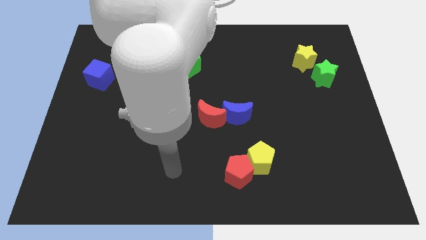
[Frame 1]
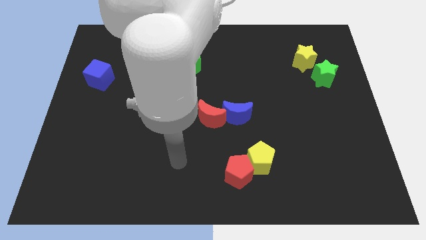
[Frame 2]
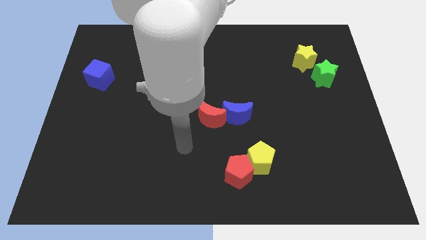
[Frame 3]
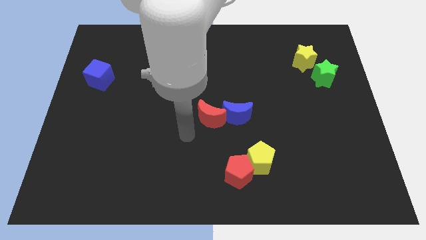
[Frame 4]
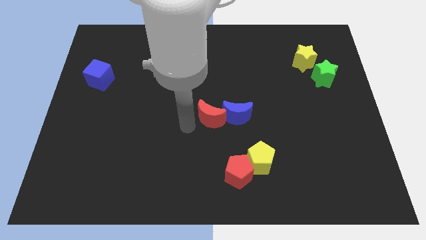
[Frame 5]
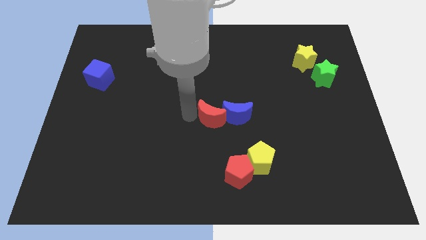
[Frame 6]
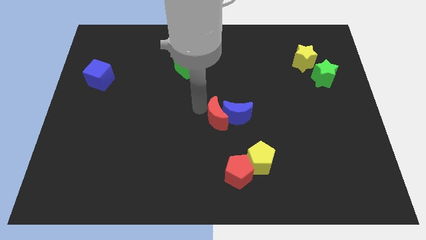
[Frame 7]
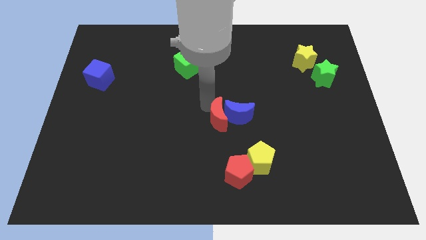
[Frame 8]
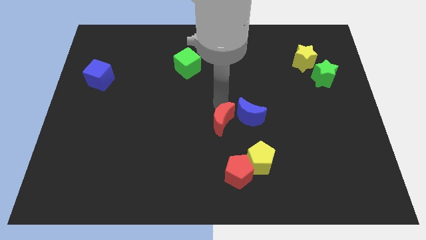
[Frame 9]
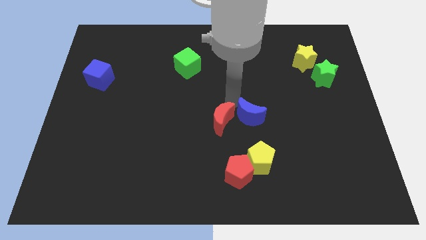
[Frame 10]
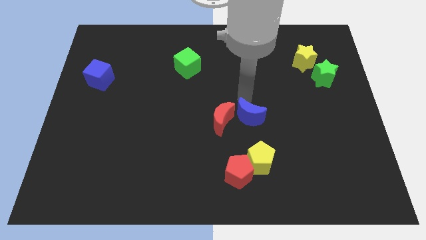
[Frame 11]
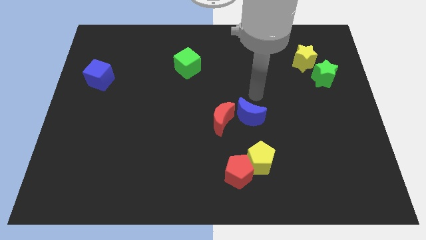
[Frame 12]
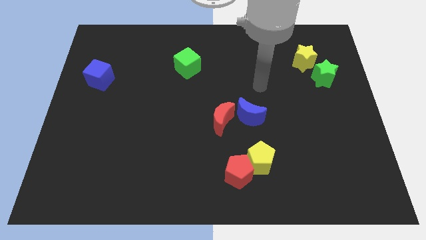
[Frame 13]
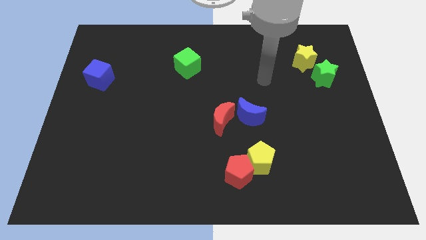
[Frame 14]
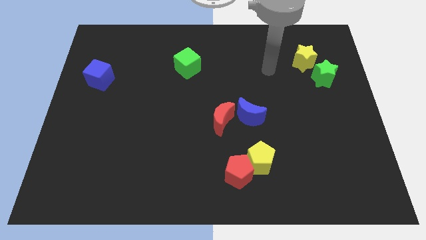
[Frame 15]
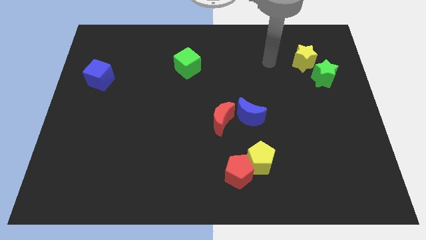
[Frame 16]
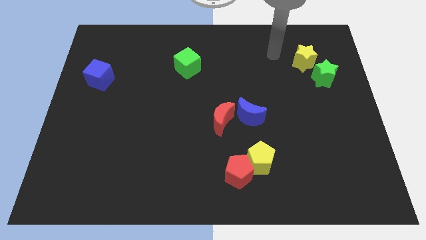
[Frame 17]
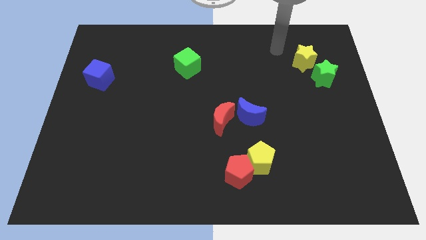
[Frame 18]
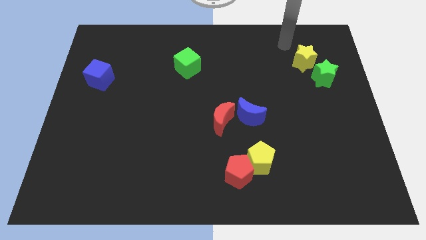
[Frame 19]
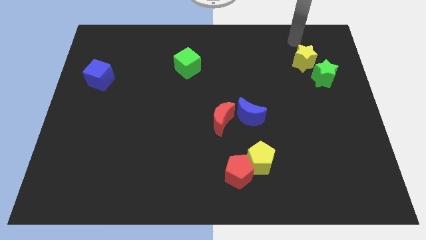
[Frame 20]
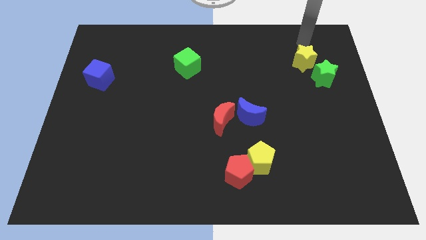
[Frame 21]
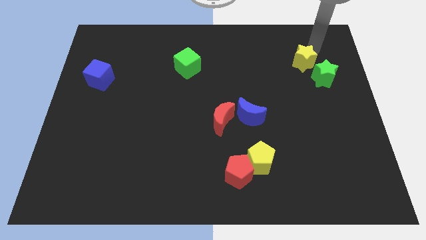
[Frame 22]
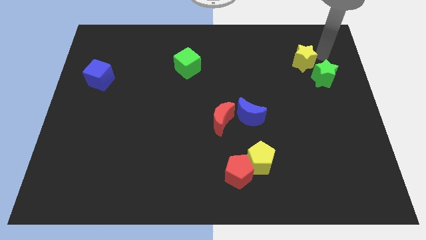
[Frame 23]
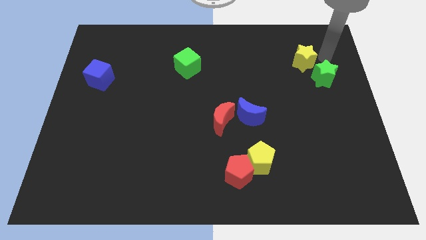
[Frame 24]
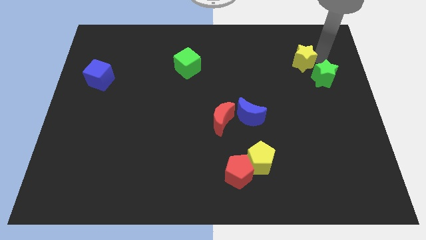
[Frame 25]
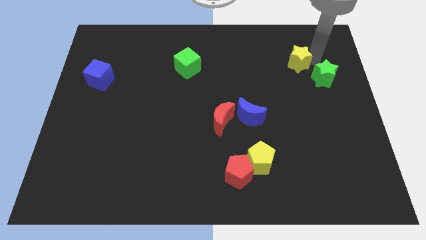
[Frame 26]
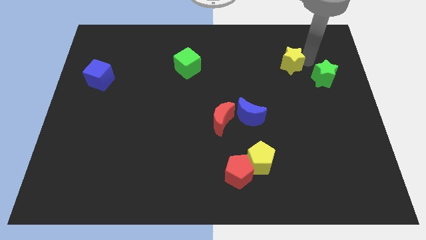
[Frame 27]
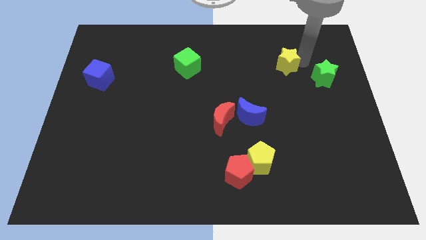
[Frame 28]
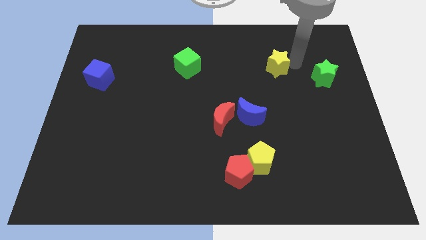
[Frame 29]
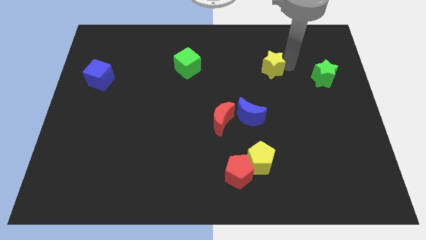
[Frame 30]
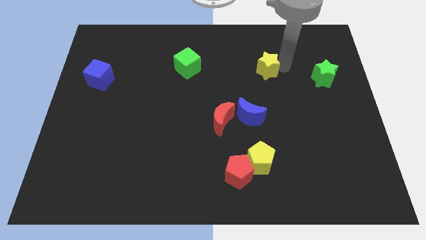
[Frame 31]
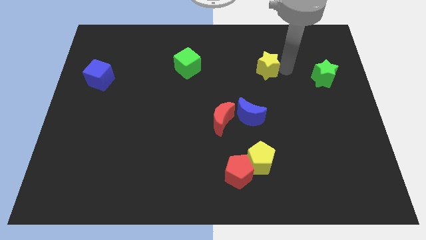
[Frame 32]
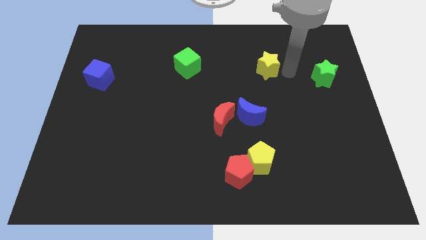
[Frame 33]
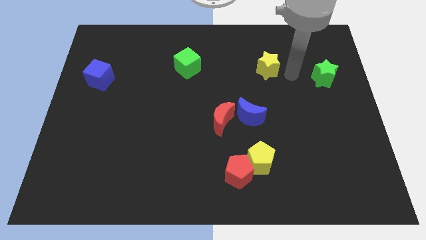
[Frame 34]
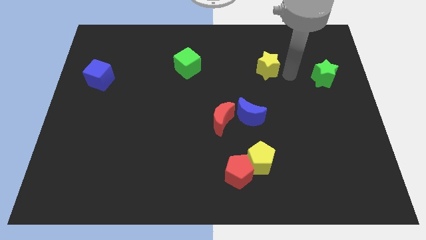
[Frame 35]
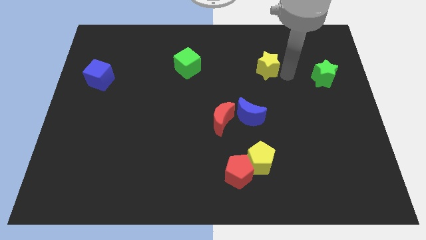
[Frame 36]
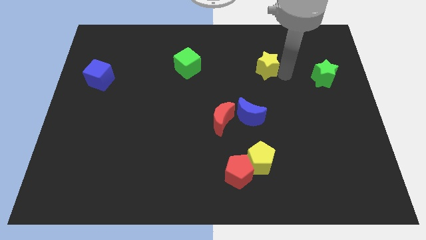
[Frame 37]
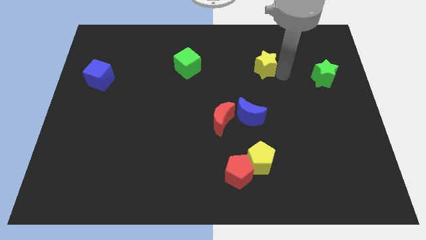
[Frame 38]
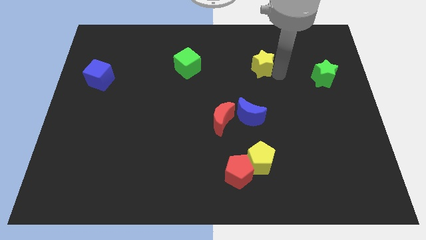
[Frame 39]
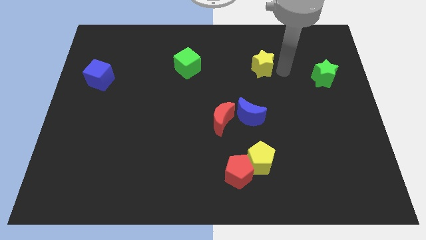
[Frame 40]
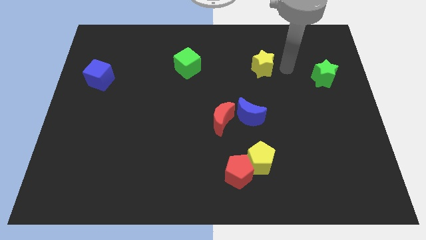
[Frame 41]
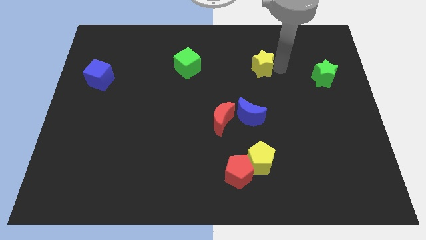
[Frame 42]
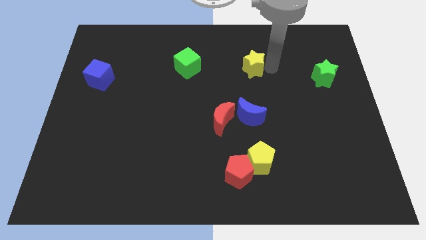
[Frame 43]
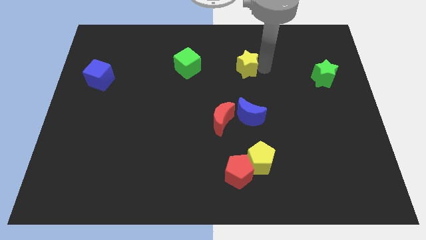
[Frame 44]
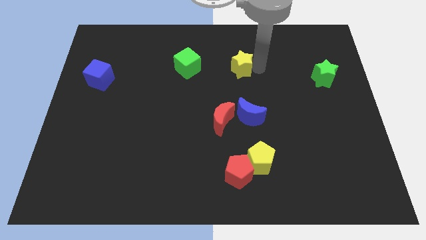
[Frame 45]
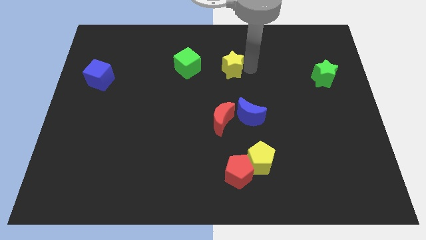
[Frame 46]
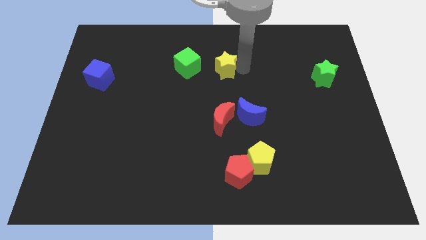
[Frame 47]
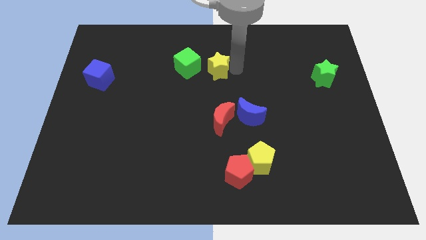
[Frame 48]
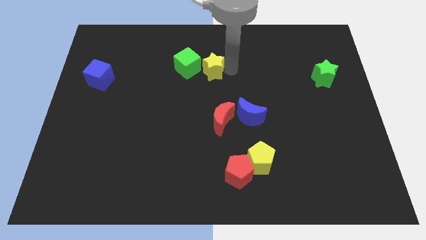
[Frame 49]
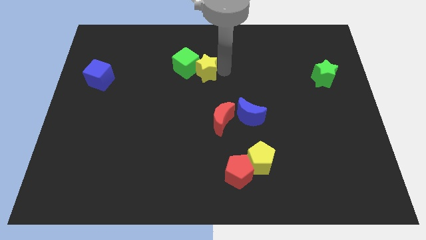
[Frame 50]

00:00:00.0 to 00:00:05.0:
put the yellow star next to the green cube

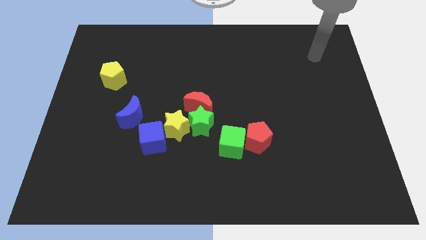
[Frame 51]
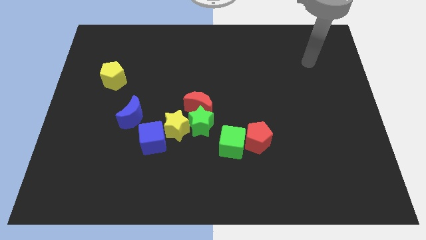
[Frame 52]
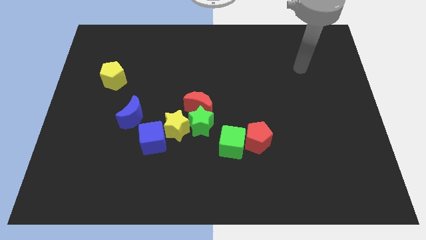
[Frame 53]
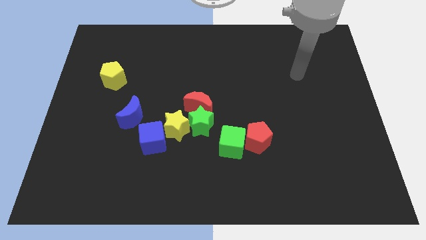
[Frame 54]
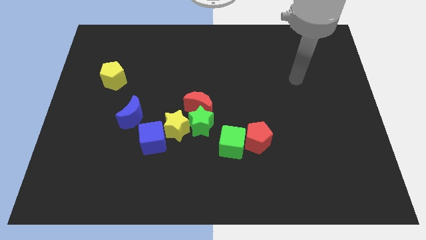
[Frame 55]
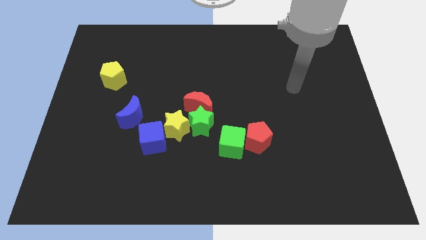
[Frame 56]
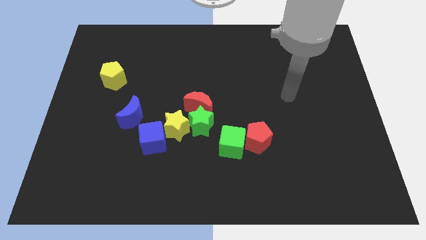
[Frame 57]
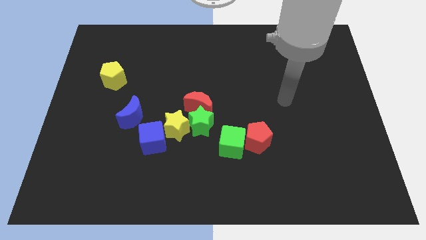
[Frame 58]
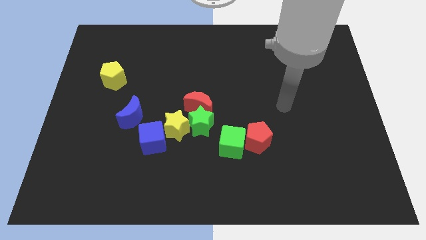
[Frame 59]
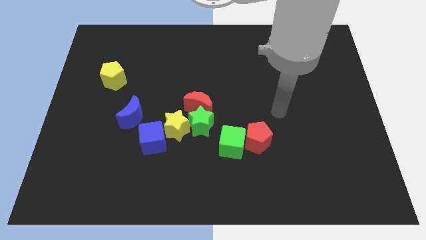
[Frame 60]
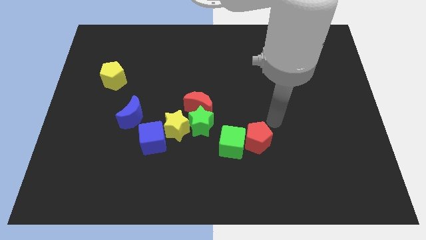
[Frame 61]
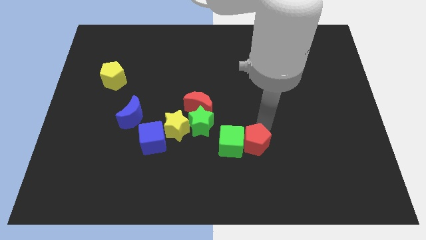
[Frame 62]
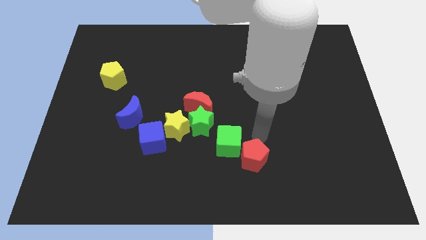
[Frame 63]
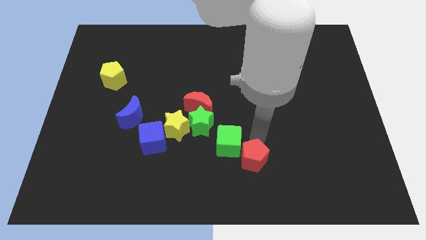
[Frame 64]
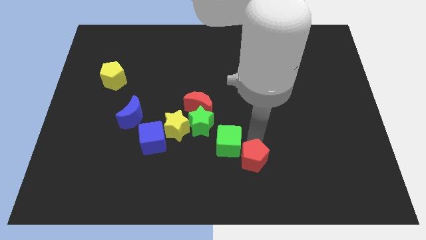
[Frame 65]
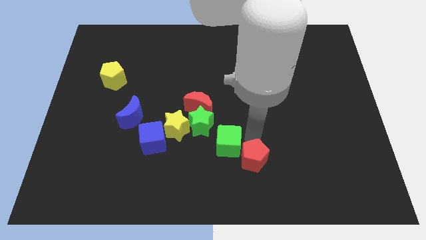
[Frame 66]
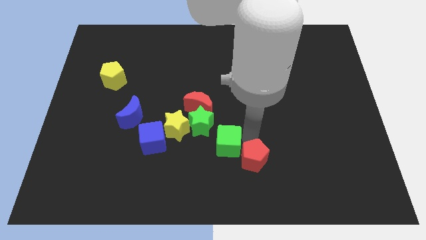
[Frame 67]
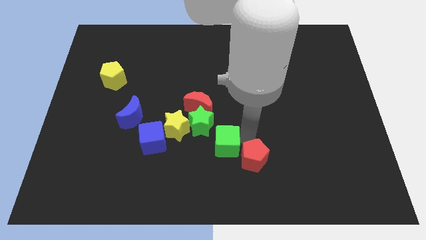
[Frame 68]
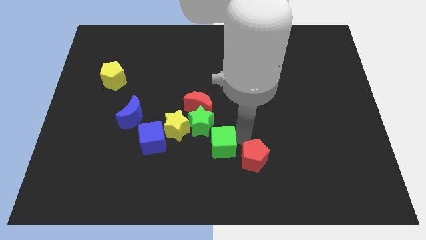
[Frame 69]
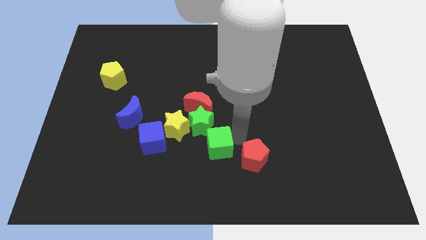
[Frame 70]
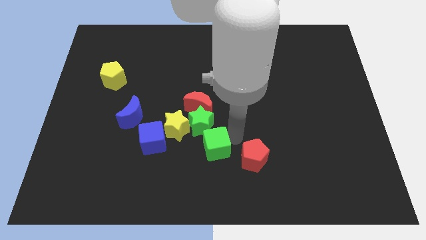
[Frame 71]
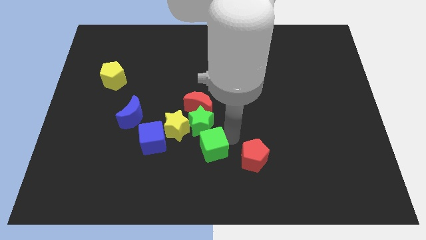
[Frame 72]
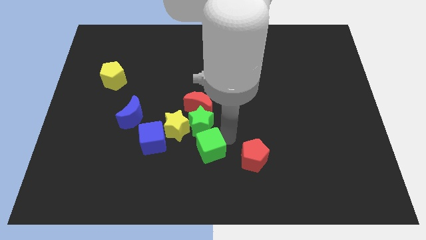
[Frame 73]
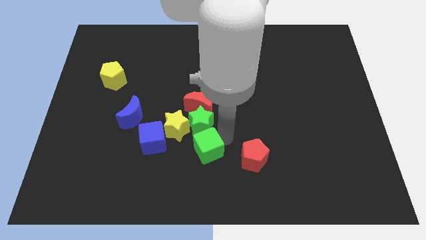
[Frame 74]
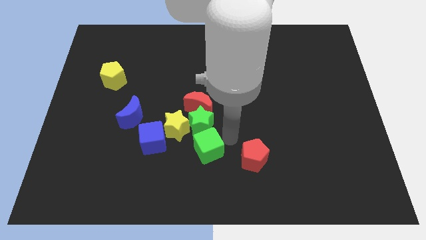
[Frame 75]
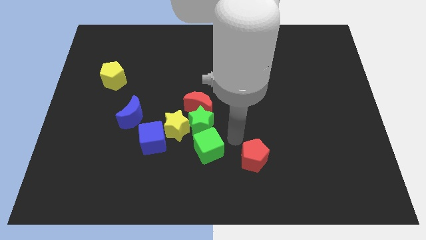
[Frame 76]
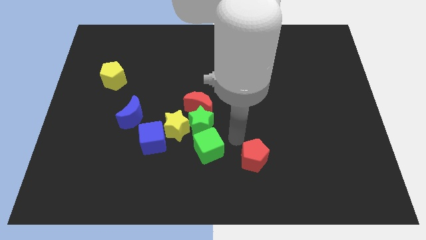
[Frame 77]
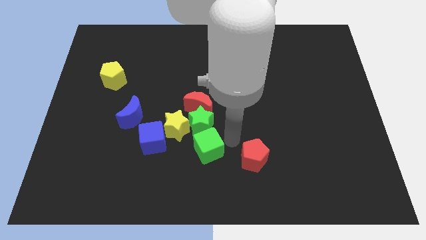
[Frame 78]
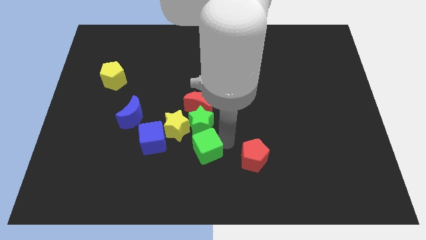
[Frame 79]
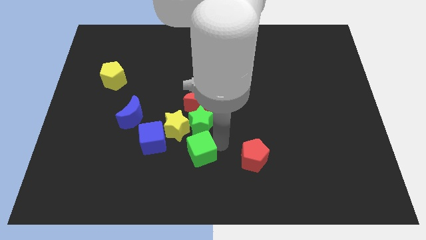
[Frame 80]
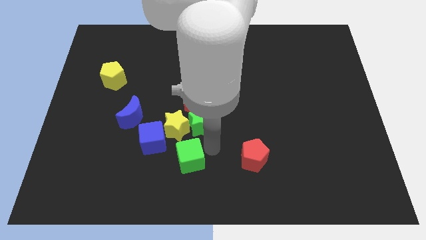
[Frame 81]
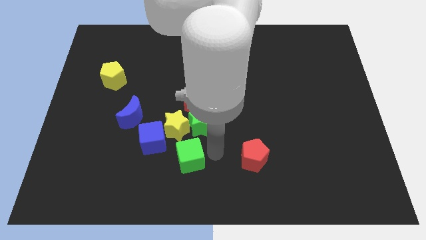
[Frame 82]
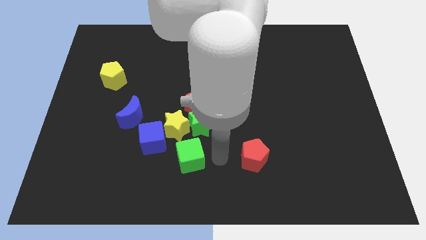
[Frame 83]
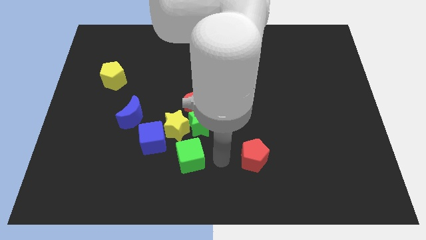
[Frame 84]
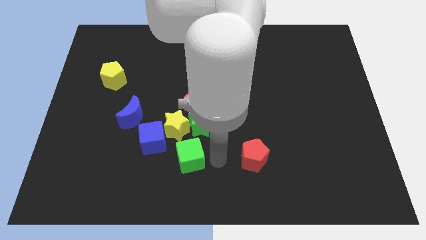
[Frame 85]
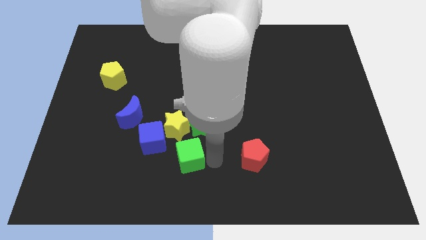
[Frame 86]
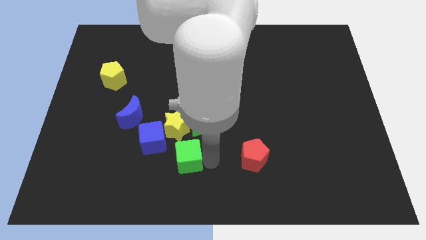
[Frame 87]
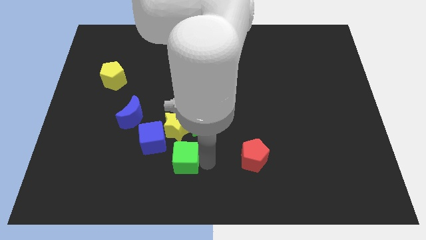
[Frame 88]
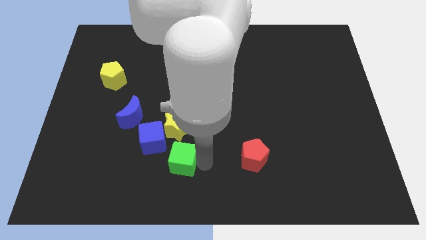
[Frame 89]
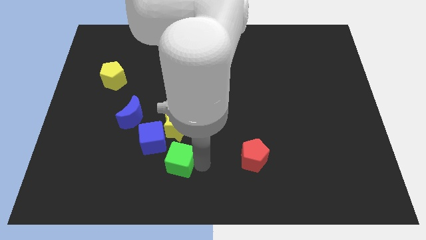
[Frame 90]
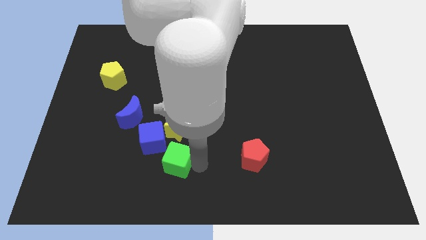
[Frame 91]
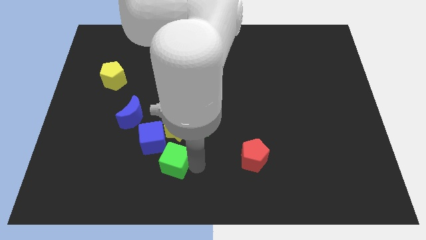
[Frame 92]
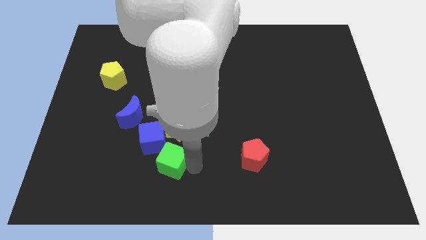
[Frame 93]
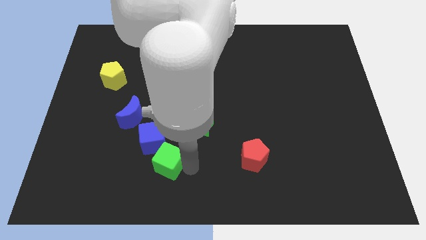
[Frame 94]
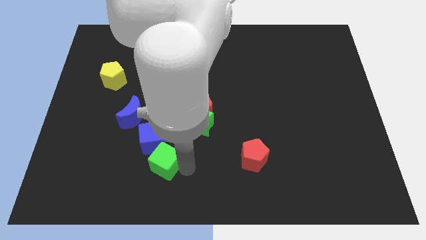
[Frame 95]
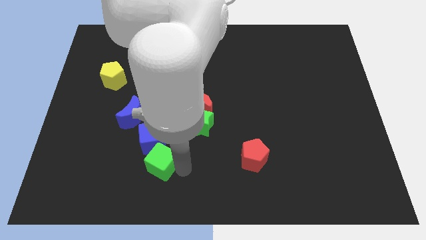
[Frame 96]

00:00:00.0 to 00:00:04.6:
put the green cube towards the blue cube
